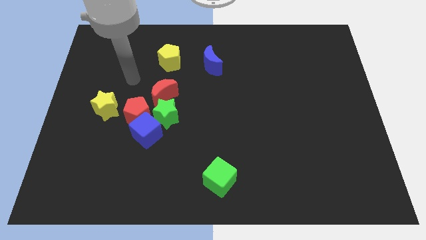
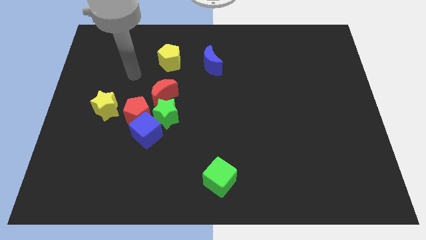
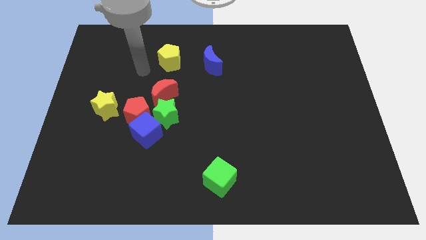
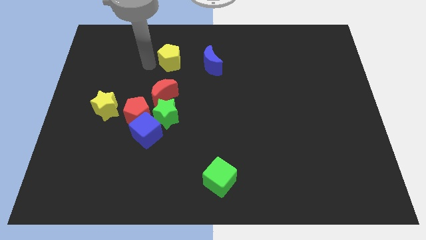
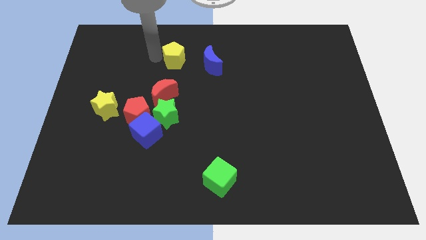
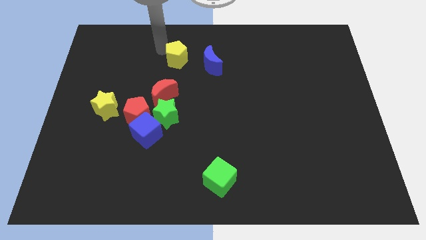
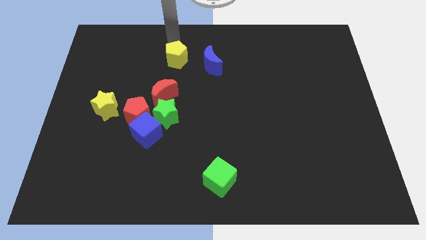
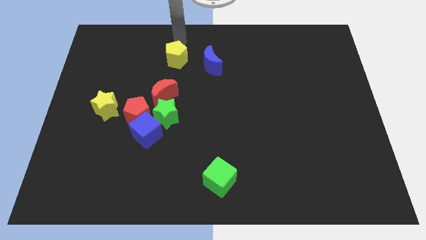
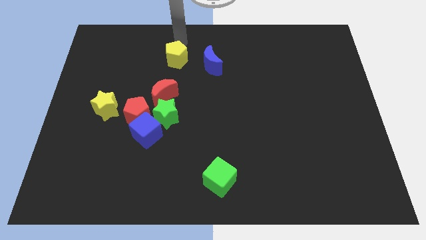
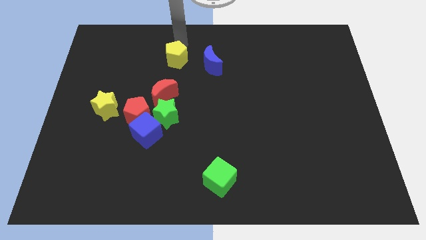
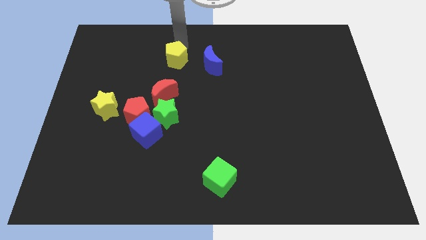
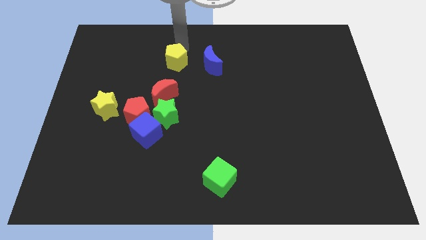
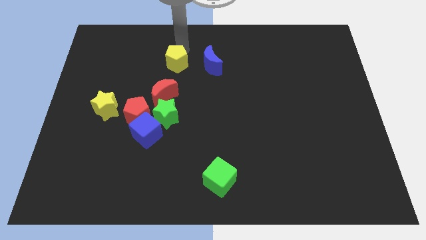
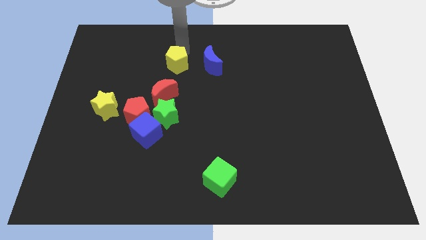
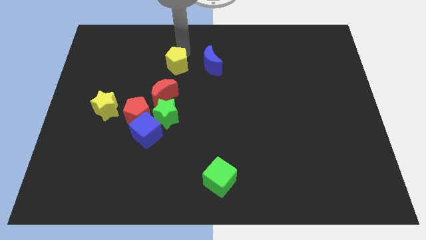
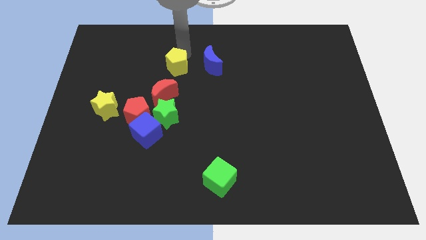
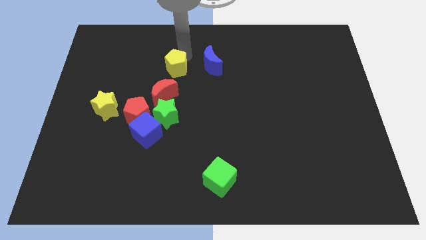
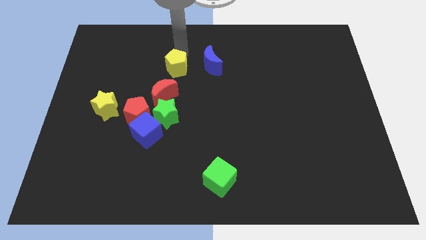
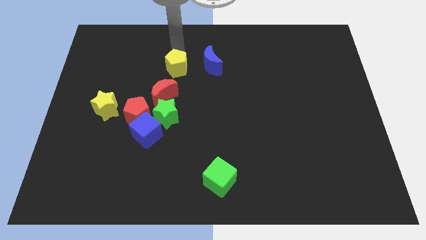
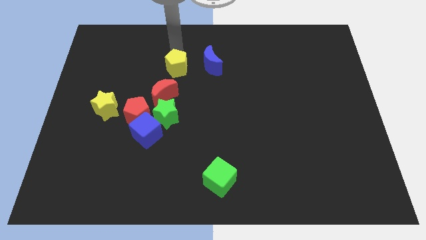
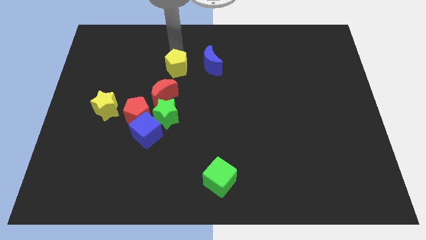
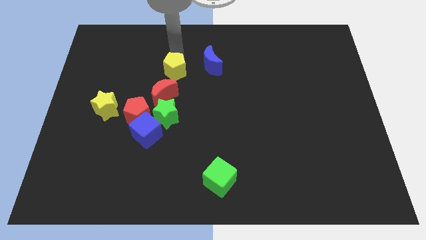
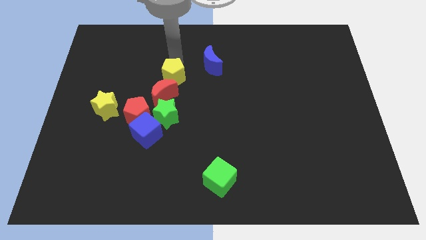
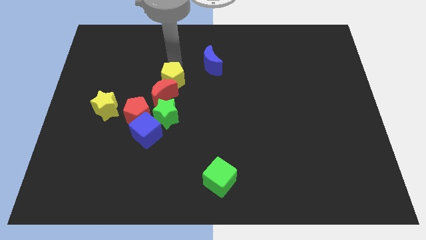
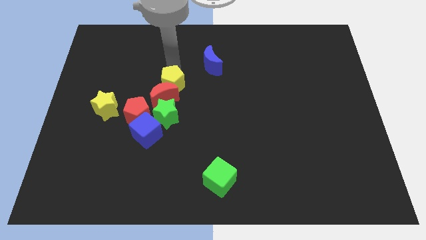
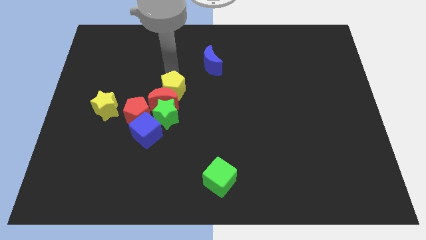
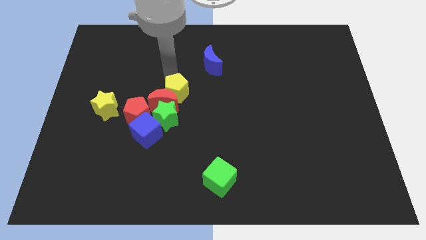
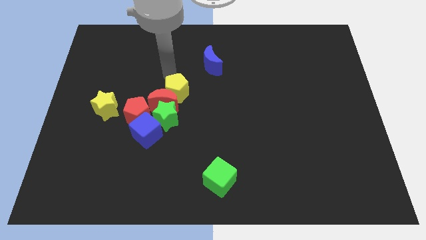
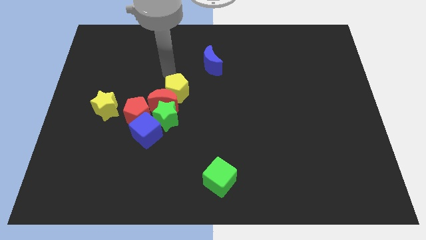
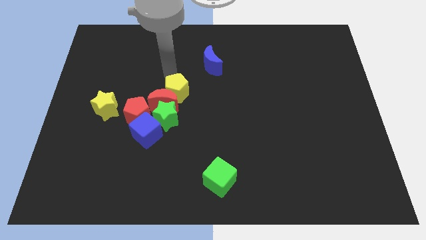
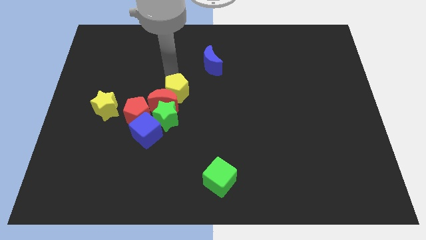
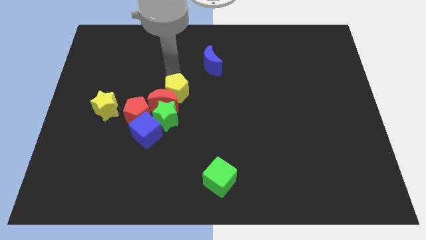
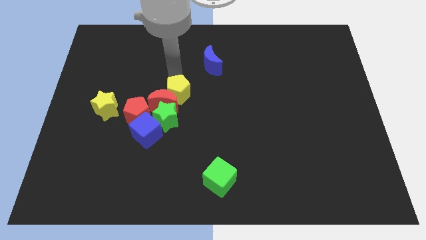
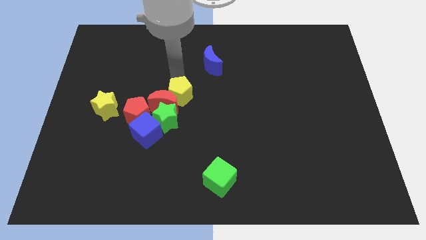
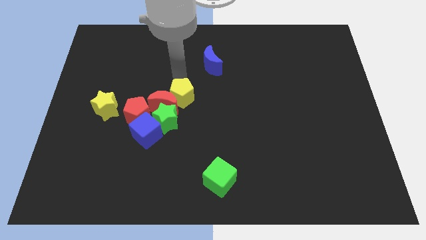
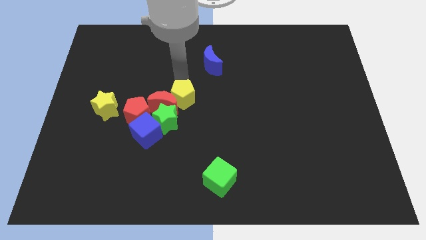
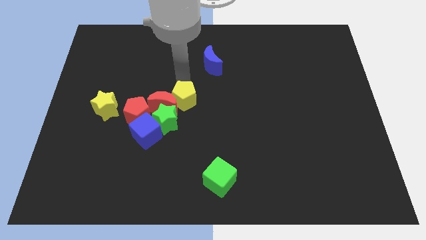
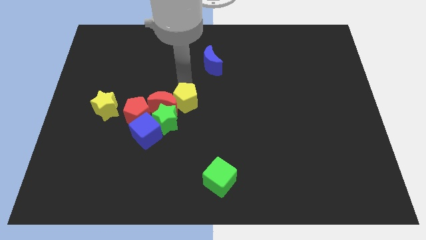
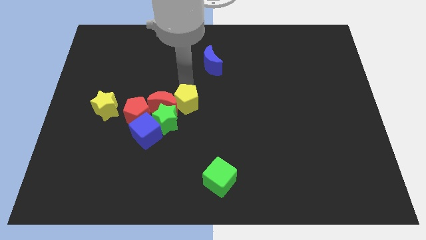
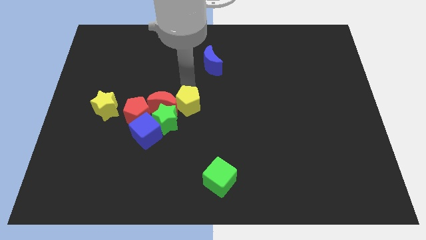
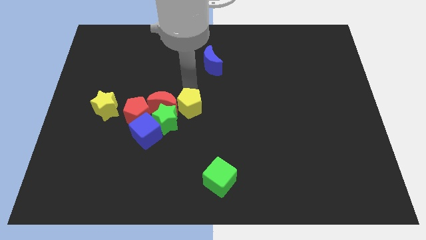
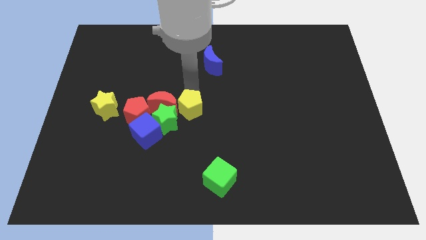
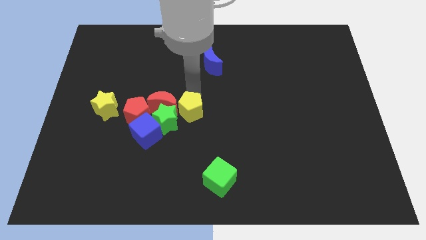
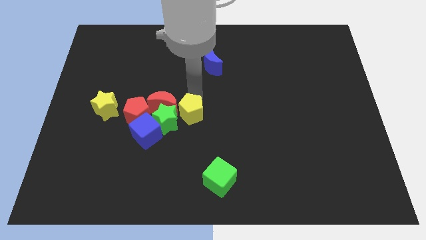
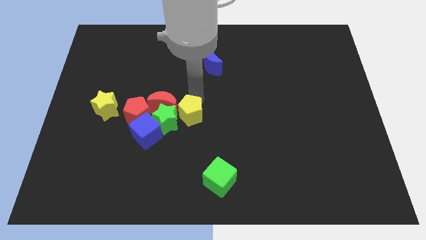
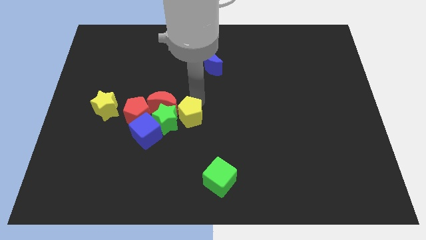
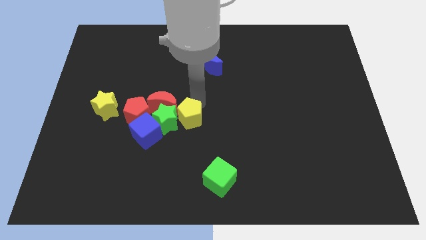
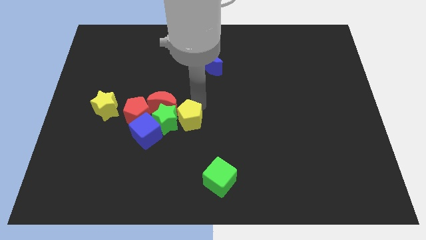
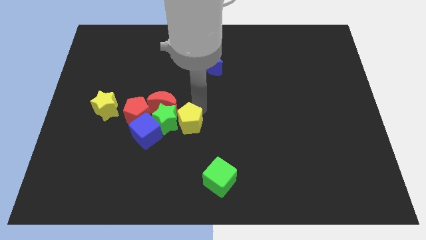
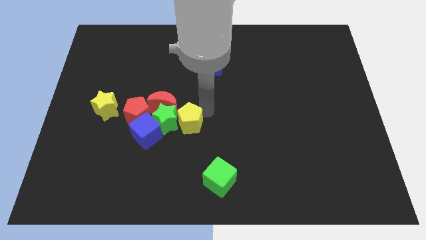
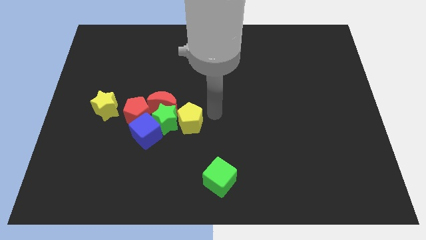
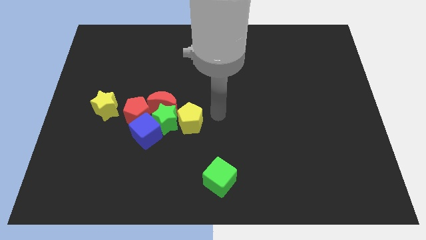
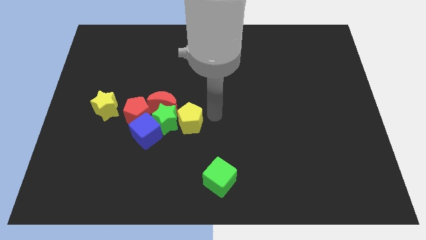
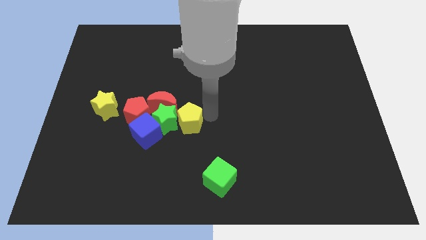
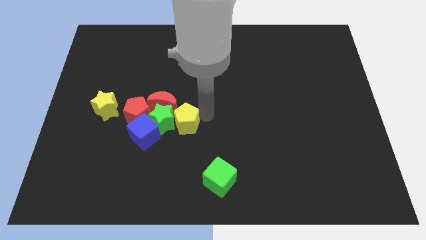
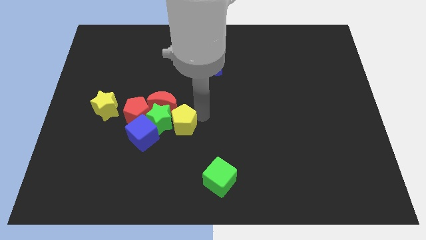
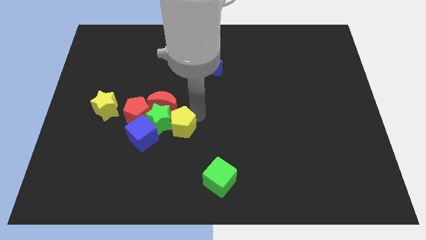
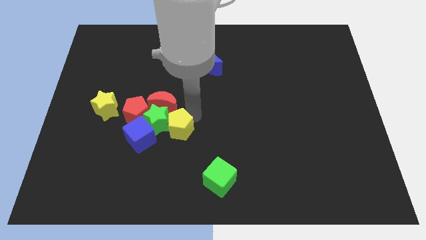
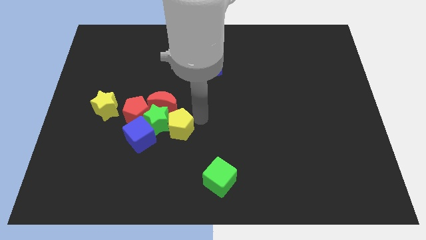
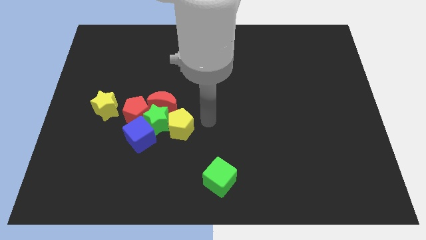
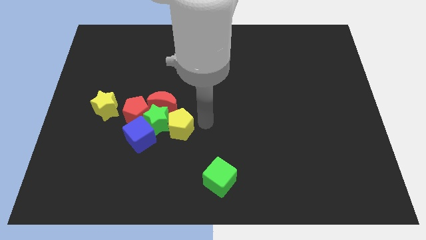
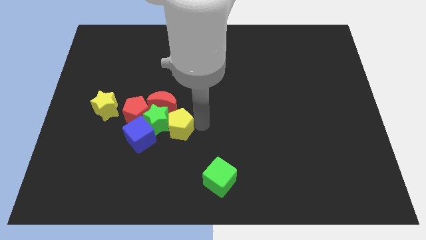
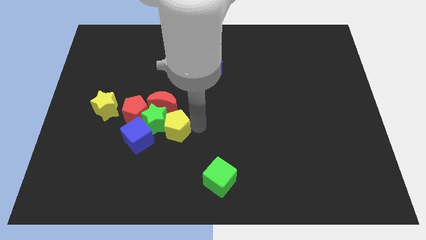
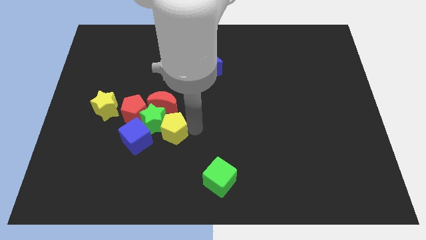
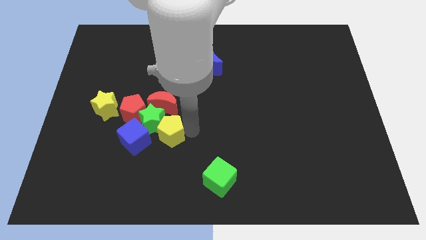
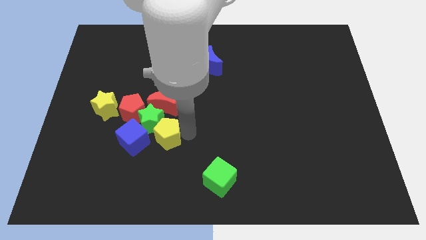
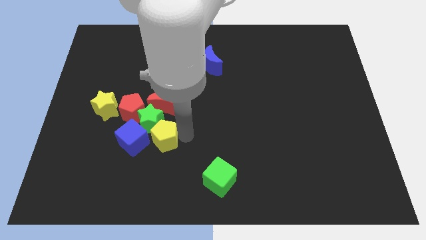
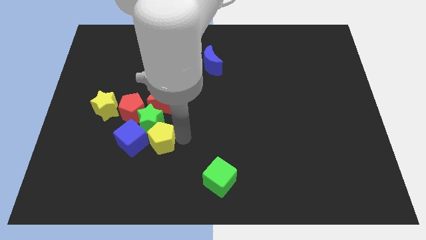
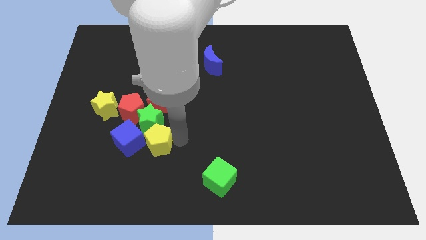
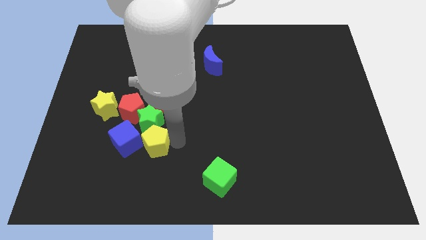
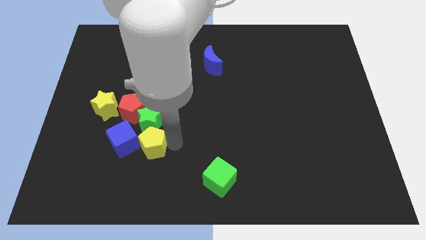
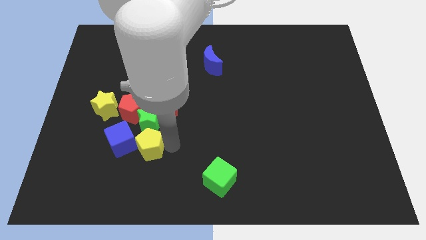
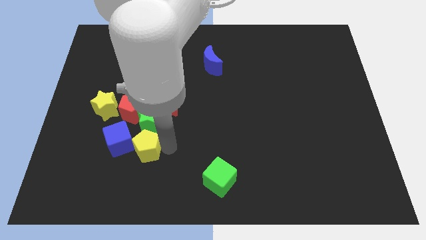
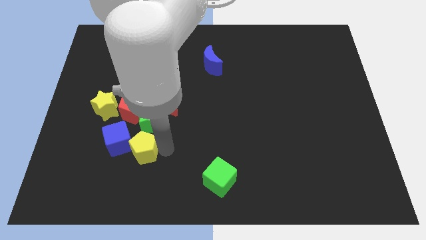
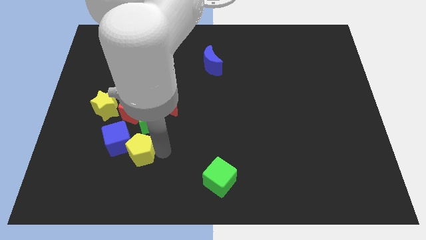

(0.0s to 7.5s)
slide the yellow pentagon towards the blue cube

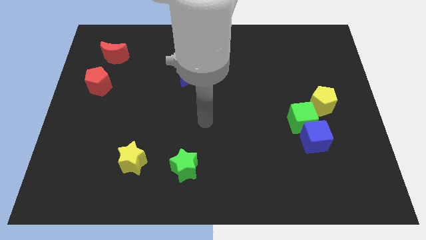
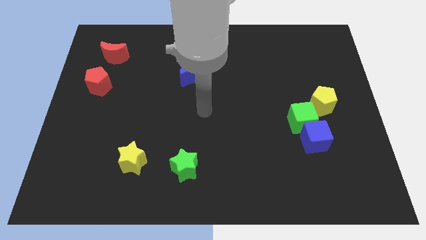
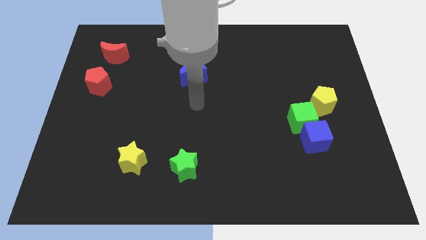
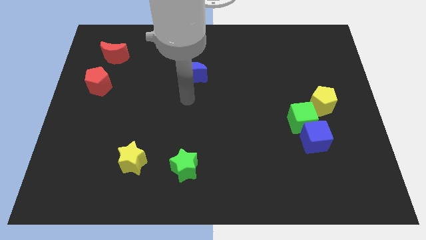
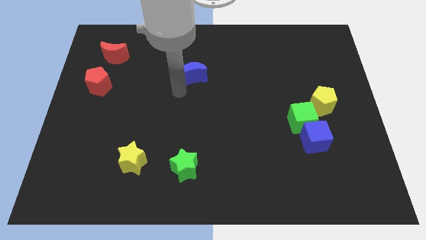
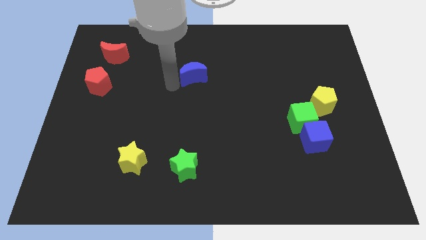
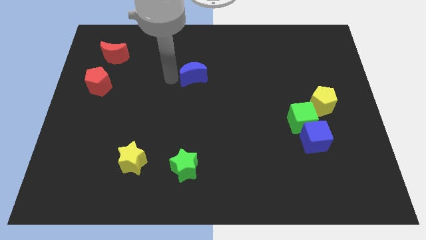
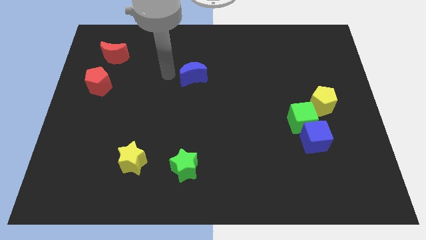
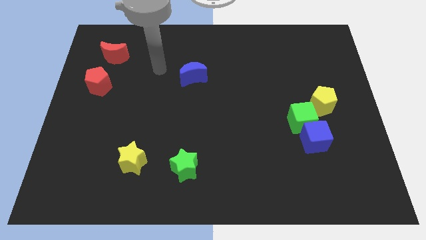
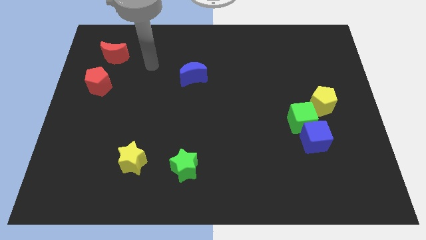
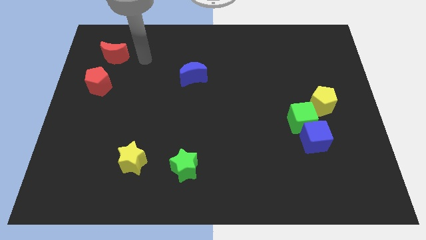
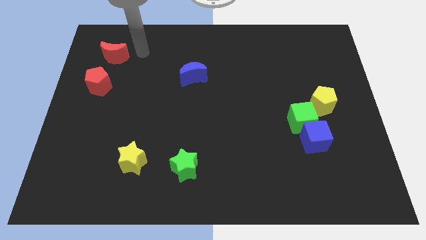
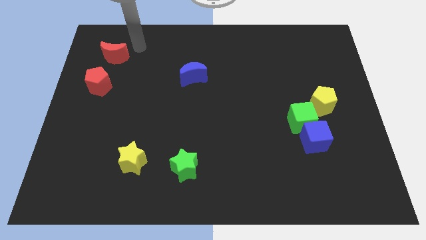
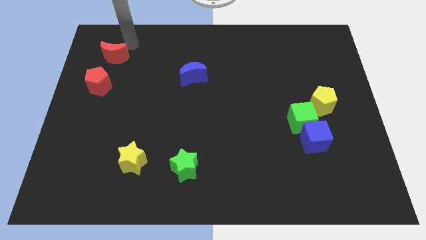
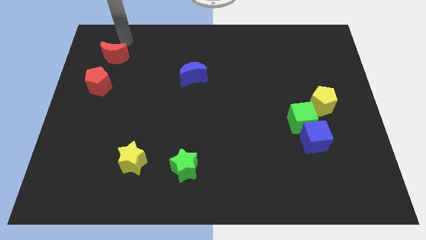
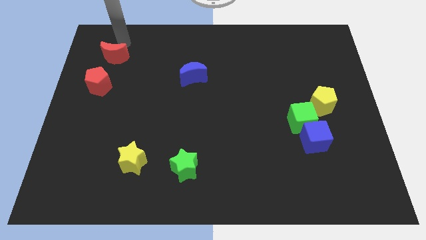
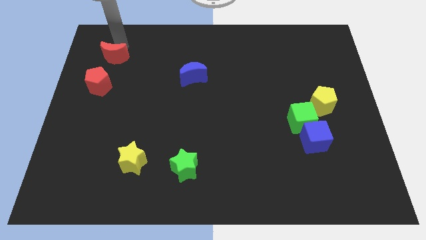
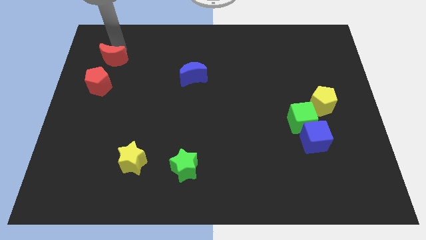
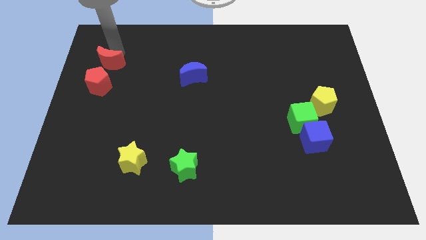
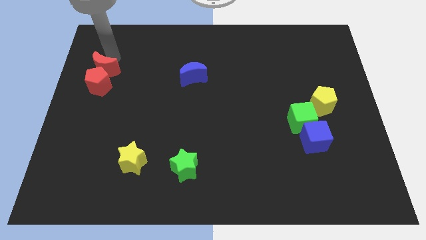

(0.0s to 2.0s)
slide the red moon towards the red pentagon
